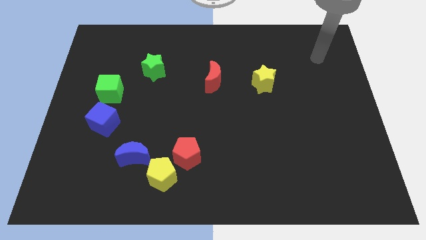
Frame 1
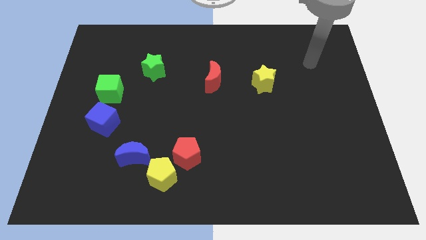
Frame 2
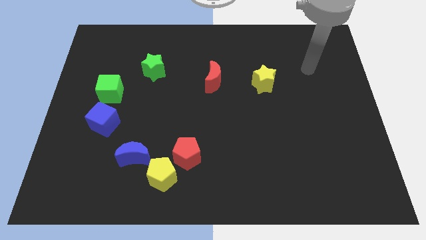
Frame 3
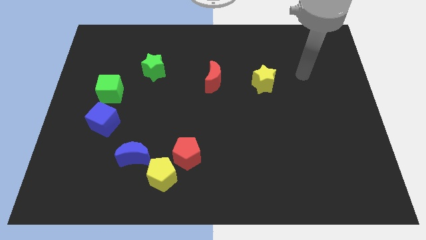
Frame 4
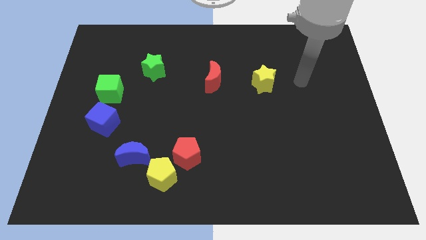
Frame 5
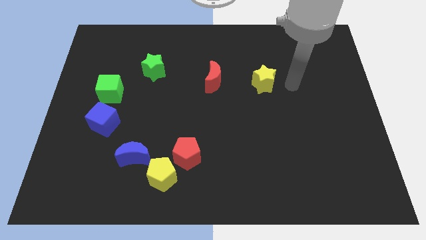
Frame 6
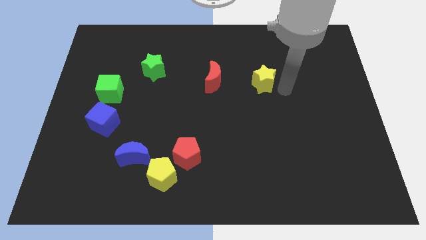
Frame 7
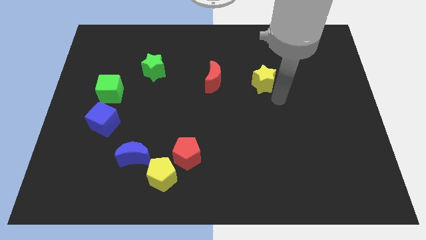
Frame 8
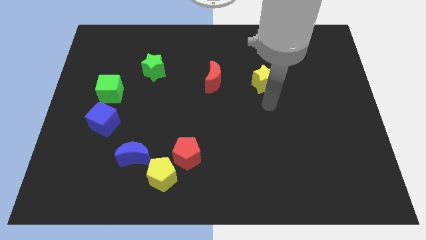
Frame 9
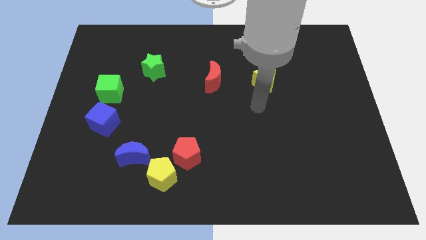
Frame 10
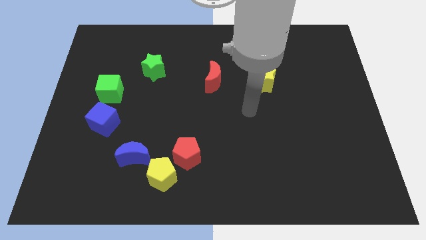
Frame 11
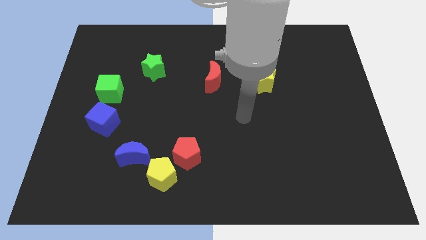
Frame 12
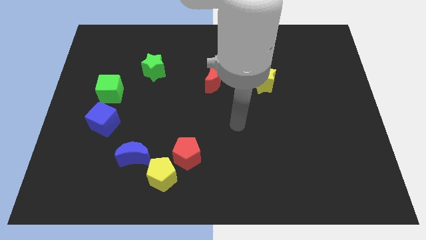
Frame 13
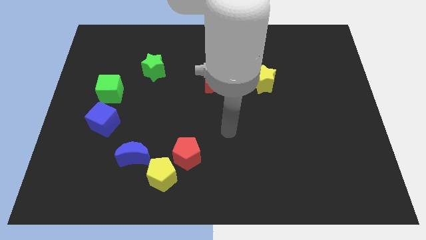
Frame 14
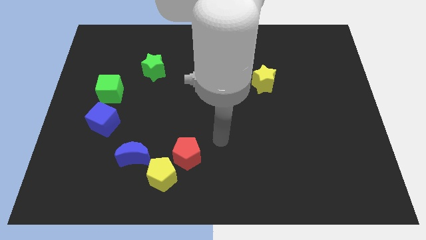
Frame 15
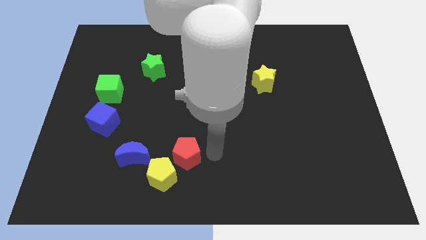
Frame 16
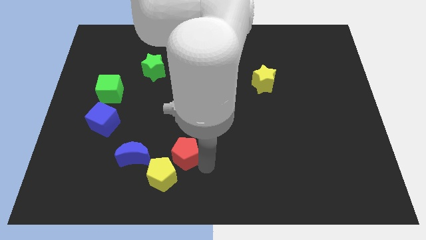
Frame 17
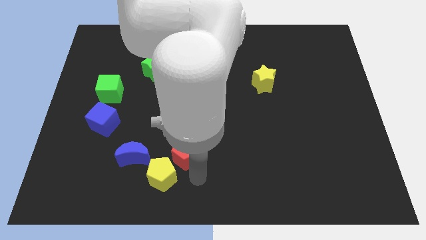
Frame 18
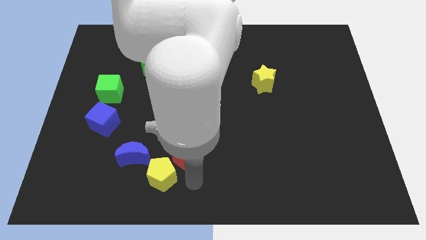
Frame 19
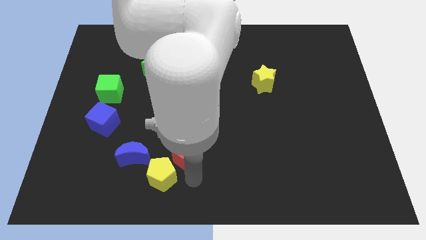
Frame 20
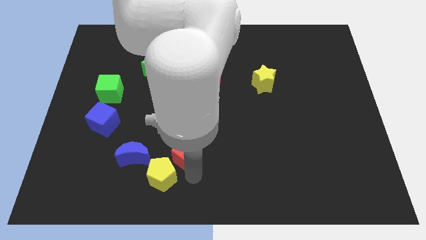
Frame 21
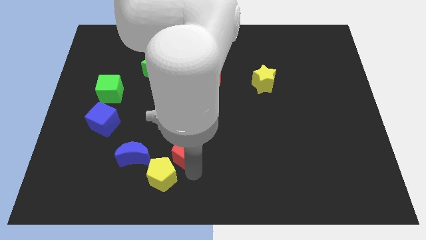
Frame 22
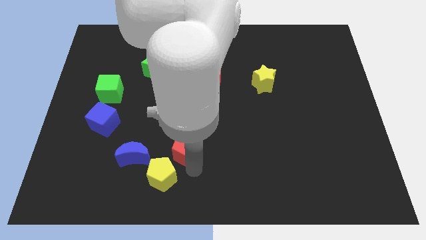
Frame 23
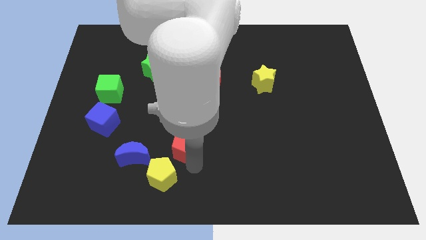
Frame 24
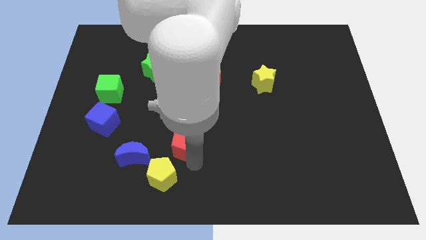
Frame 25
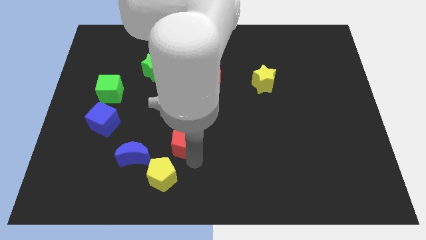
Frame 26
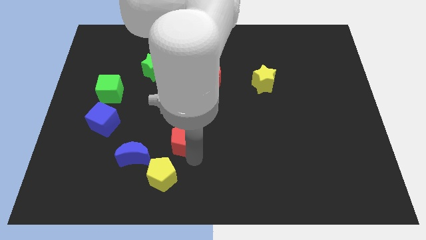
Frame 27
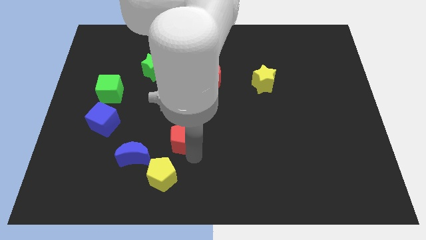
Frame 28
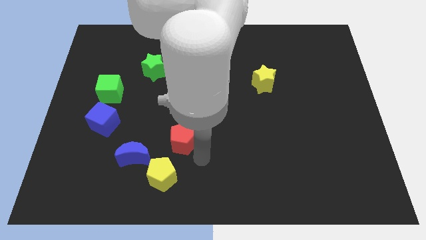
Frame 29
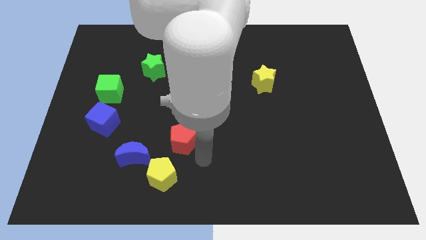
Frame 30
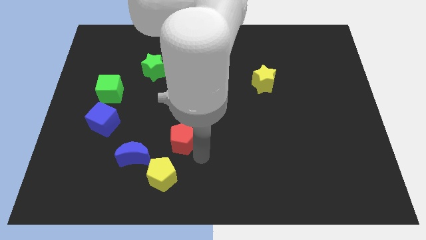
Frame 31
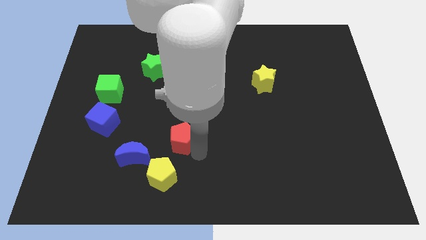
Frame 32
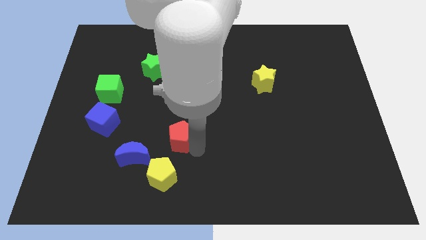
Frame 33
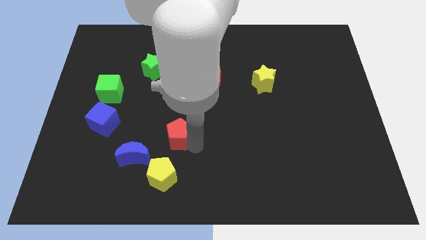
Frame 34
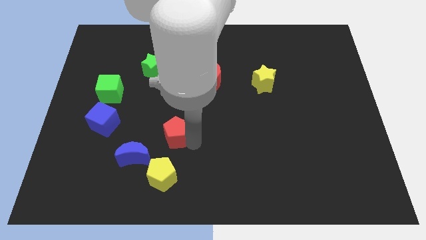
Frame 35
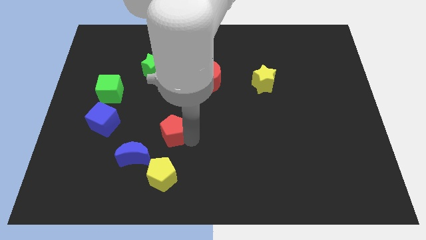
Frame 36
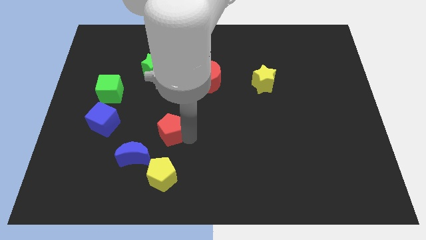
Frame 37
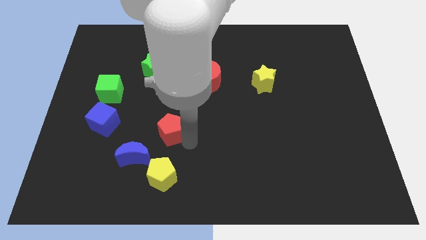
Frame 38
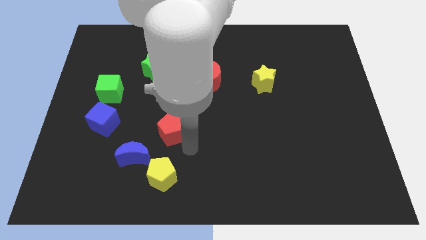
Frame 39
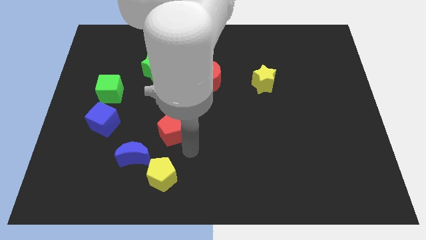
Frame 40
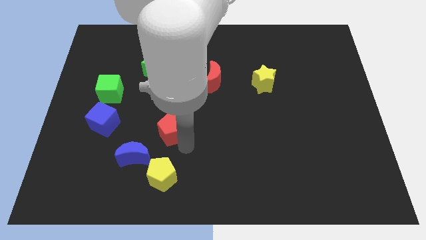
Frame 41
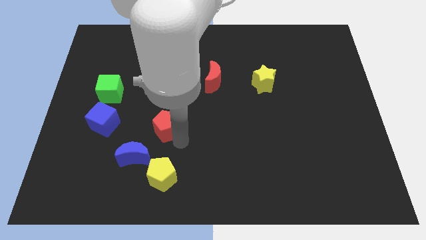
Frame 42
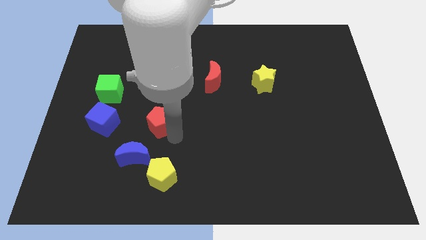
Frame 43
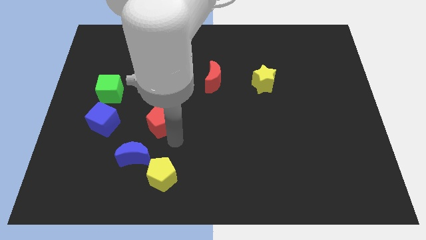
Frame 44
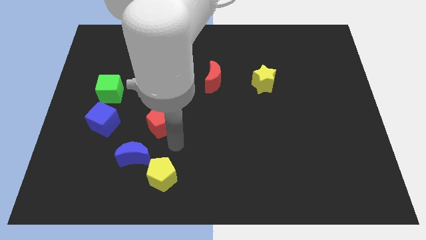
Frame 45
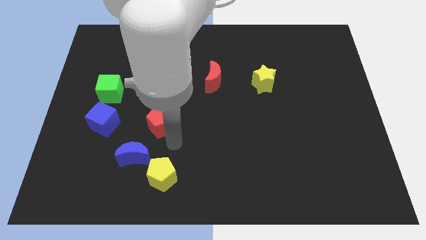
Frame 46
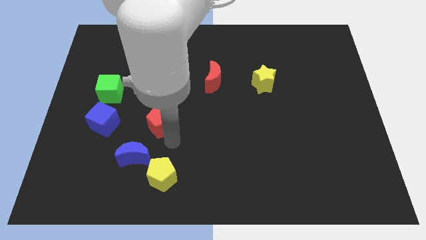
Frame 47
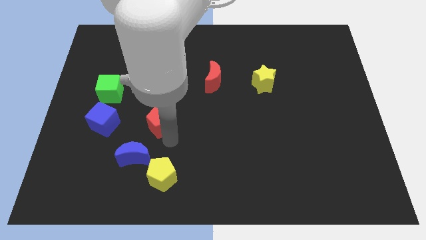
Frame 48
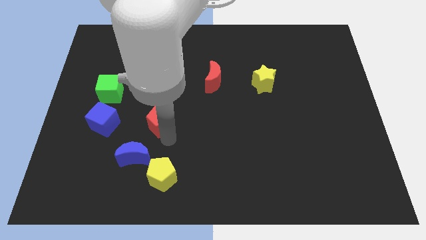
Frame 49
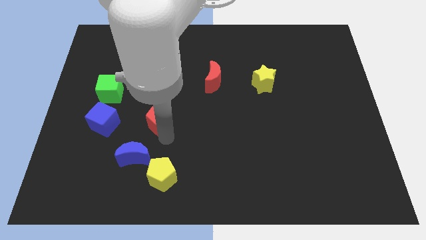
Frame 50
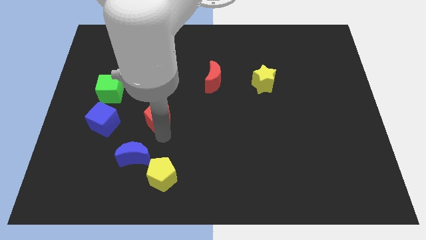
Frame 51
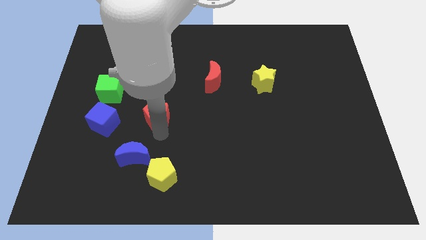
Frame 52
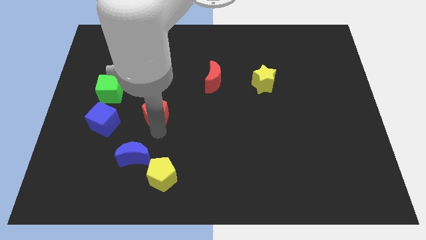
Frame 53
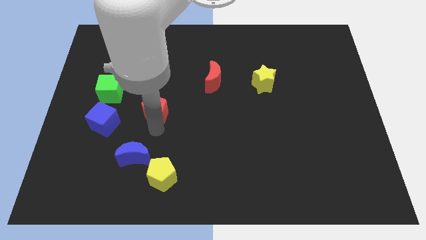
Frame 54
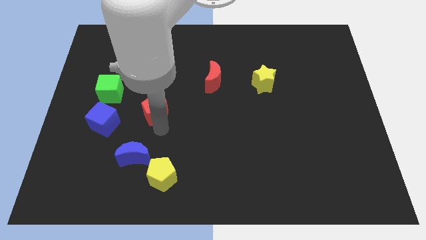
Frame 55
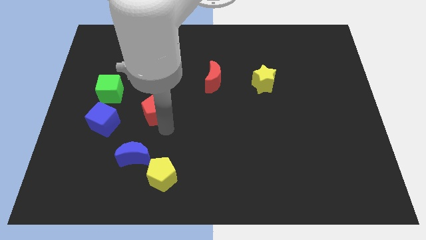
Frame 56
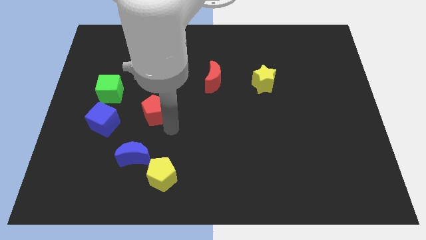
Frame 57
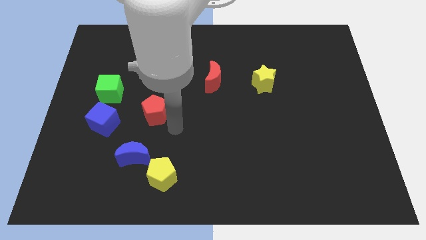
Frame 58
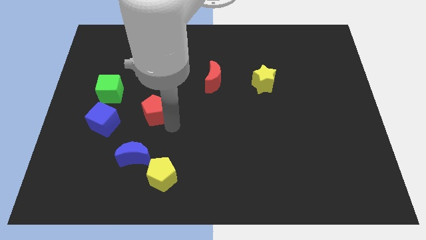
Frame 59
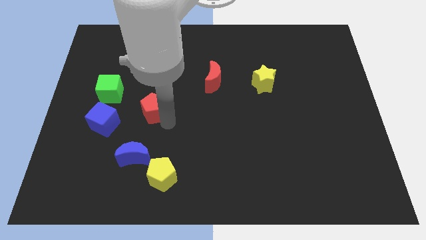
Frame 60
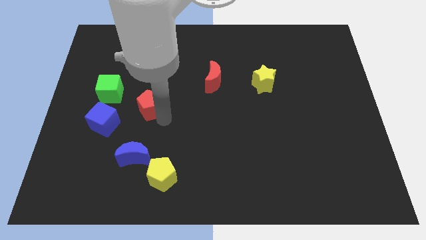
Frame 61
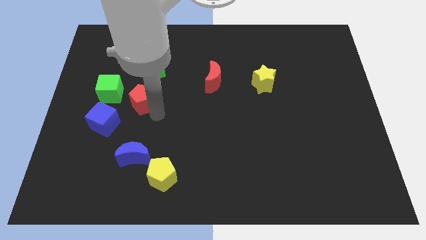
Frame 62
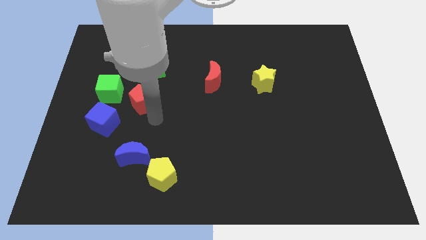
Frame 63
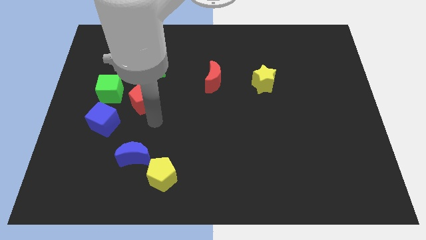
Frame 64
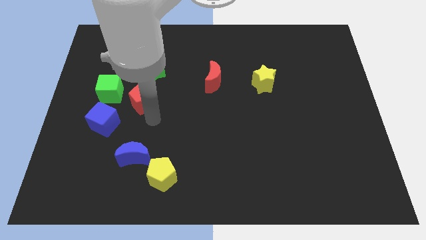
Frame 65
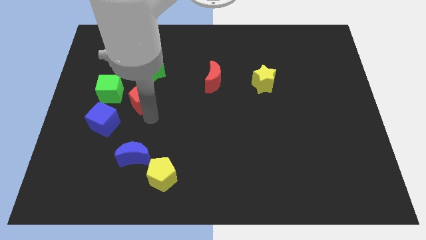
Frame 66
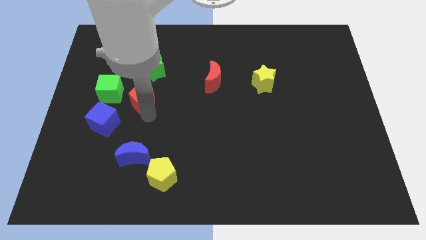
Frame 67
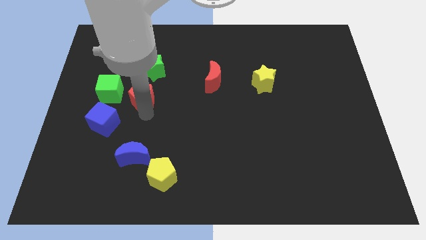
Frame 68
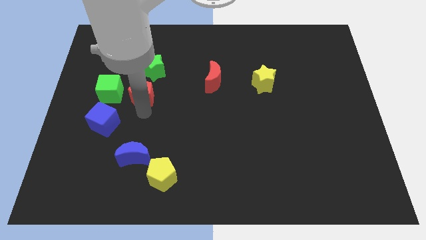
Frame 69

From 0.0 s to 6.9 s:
move the red pentagon to the bottom left side of the green star

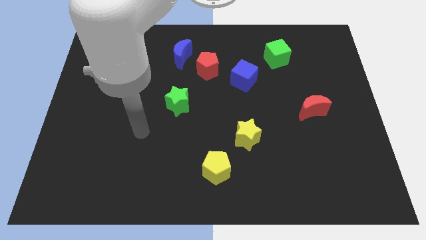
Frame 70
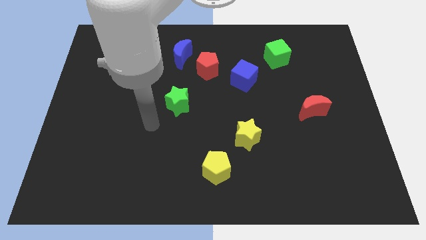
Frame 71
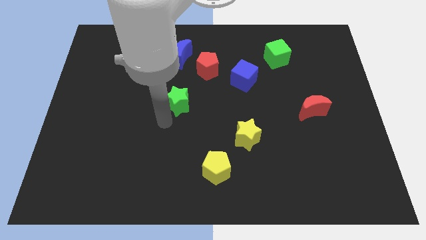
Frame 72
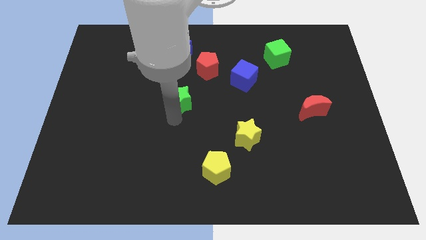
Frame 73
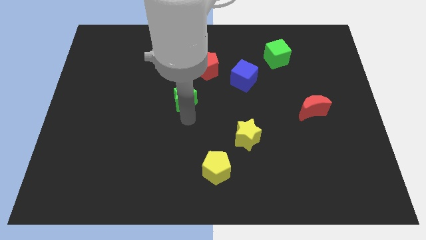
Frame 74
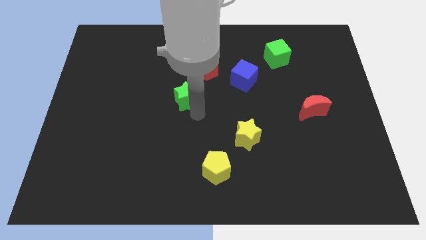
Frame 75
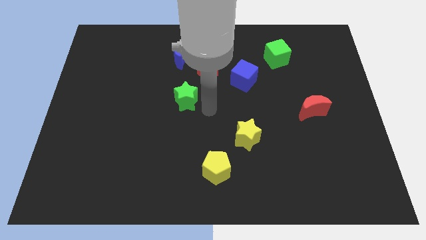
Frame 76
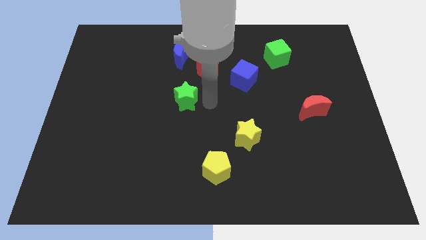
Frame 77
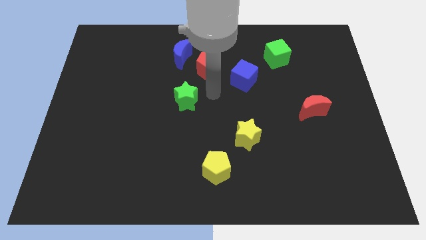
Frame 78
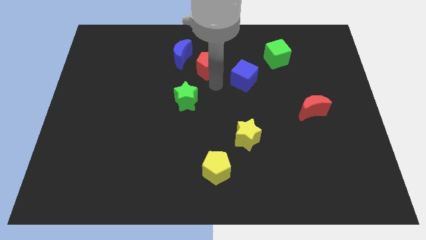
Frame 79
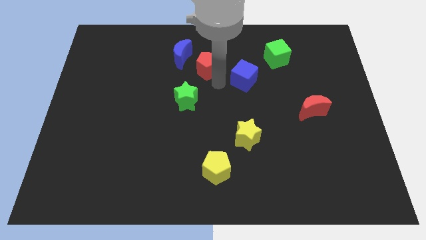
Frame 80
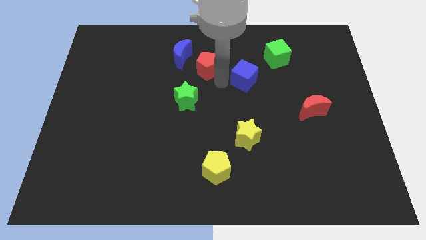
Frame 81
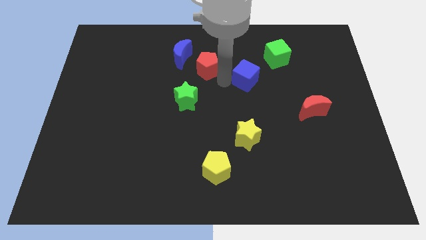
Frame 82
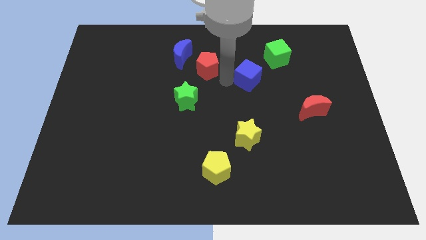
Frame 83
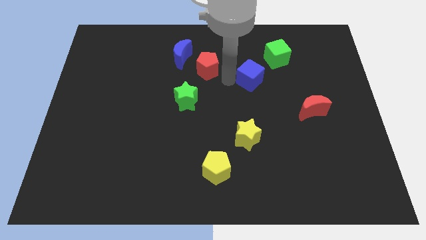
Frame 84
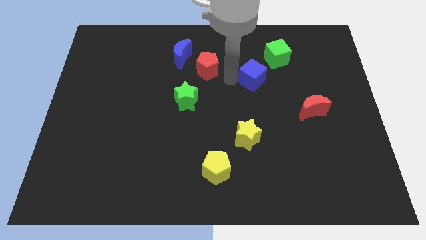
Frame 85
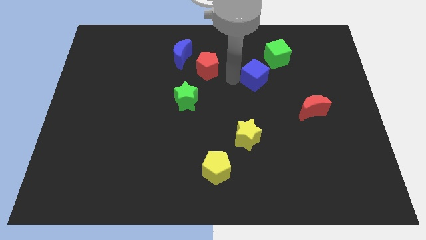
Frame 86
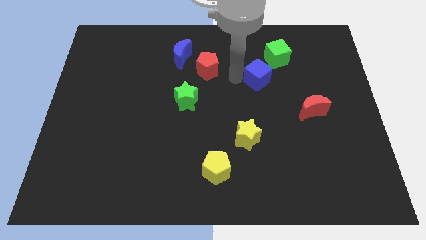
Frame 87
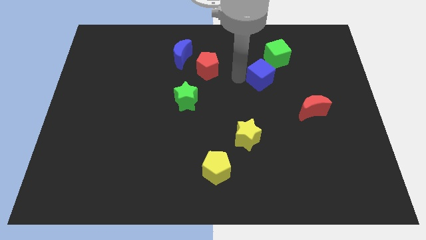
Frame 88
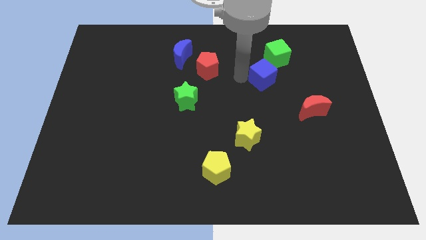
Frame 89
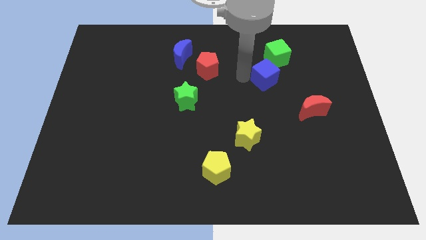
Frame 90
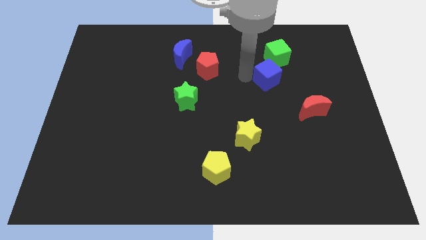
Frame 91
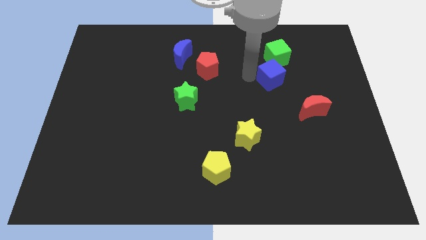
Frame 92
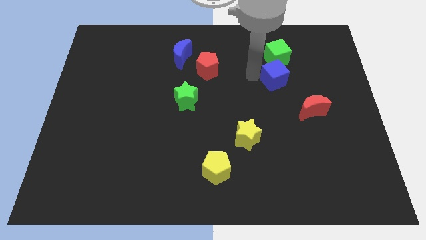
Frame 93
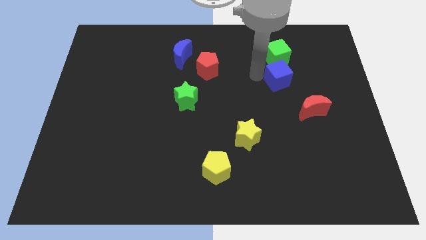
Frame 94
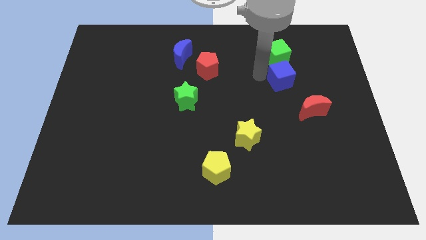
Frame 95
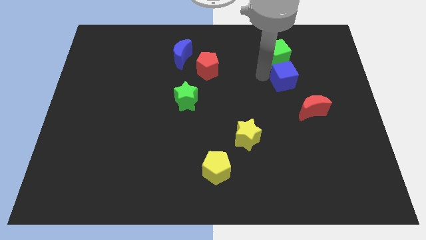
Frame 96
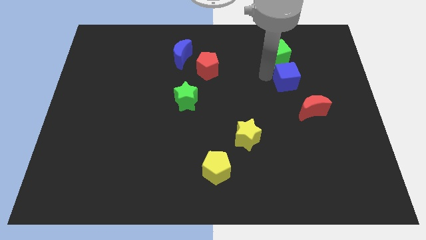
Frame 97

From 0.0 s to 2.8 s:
move the blue cube to the top of the red moon
